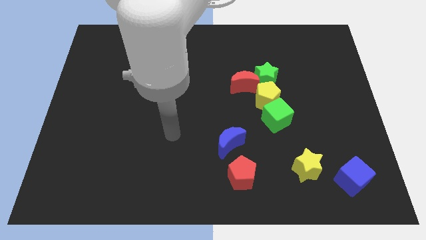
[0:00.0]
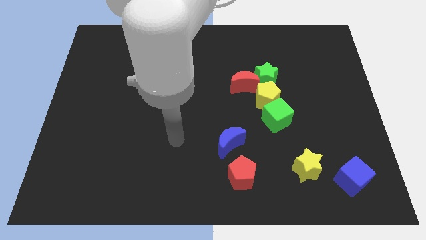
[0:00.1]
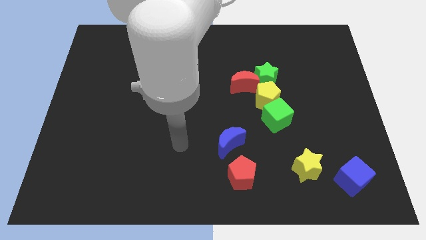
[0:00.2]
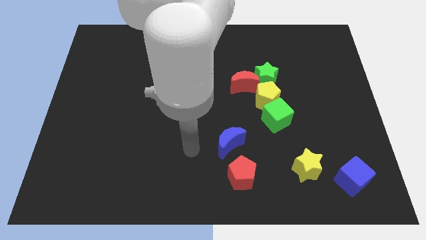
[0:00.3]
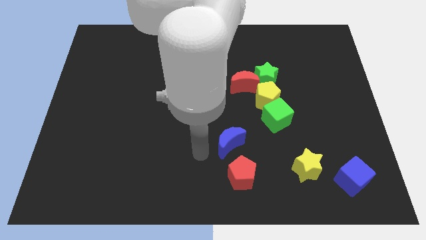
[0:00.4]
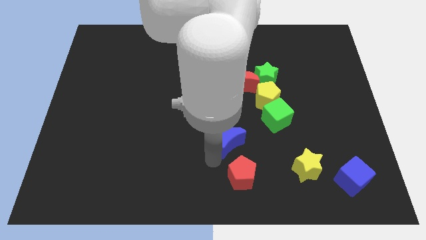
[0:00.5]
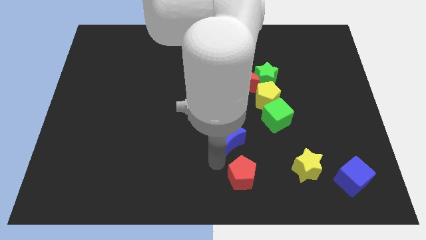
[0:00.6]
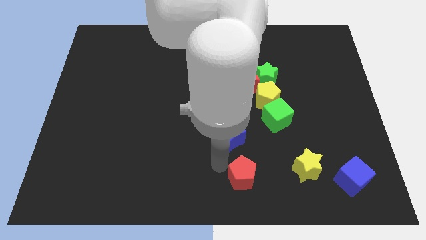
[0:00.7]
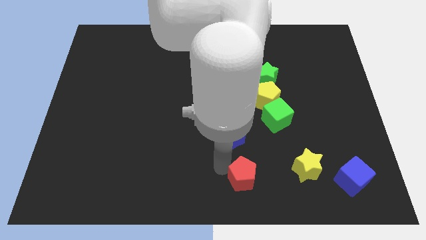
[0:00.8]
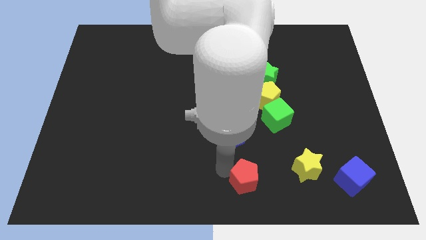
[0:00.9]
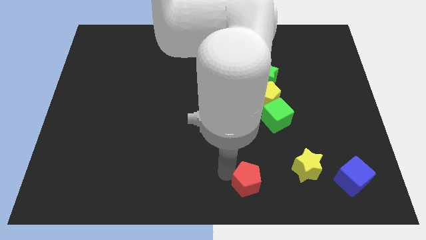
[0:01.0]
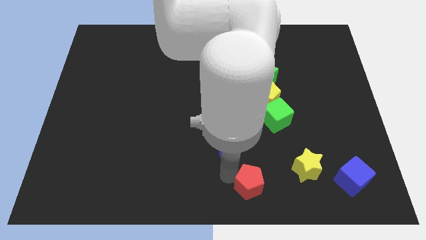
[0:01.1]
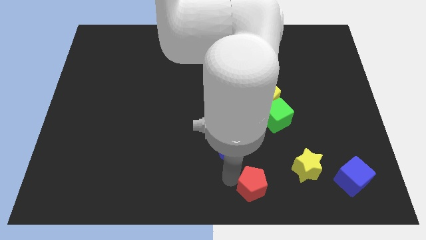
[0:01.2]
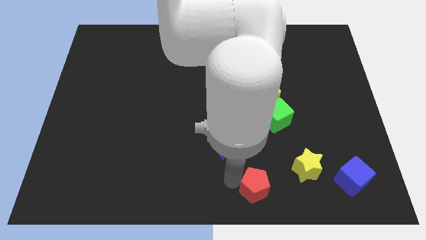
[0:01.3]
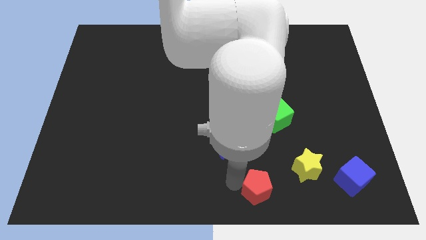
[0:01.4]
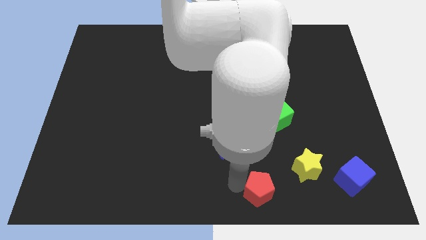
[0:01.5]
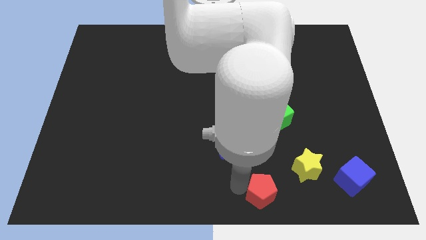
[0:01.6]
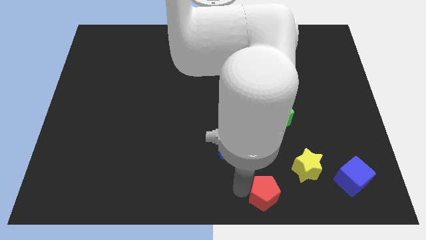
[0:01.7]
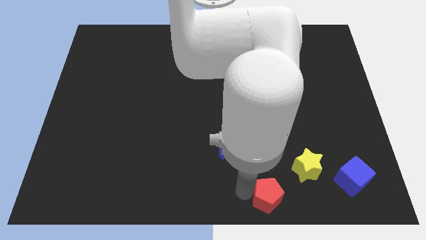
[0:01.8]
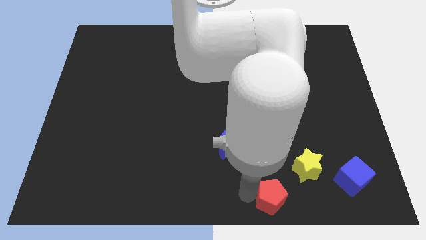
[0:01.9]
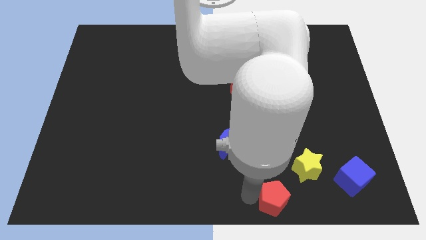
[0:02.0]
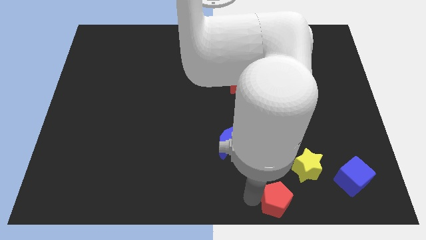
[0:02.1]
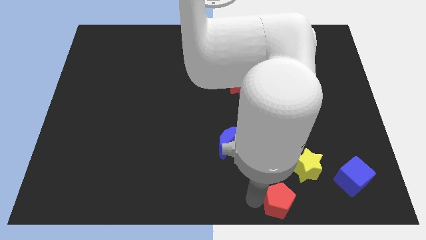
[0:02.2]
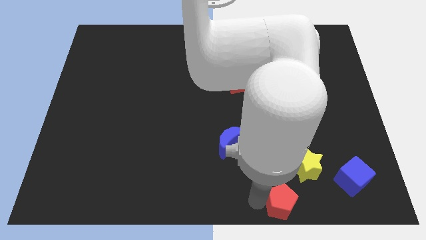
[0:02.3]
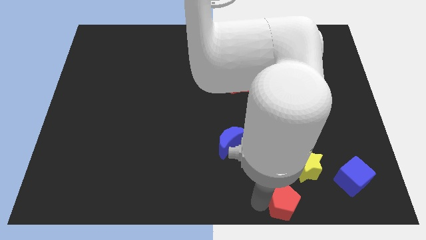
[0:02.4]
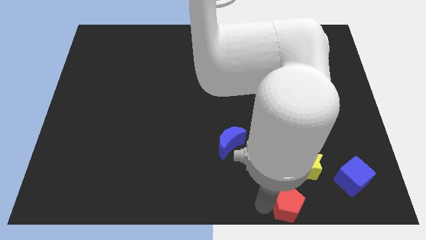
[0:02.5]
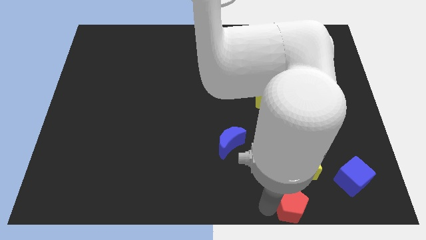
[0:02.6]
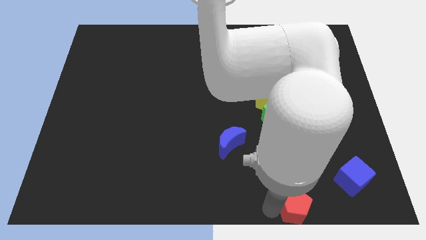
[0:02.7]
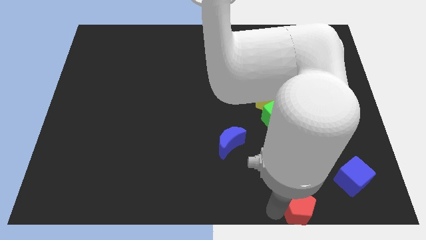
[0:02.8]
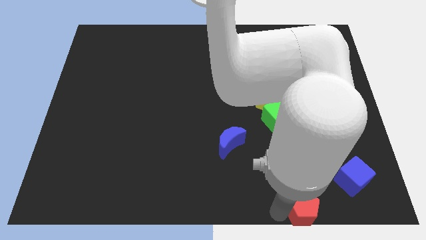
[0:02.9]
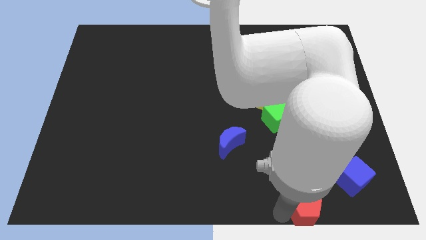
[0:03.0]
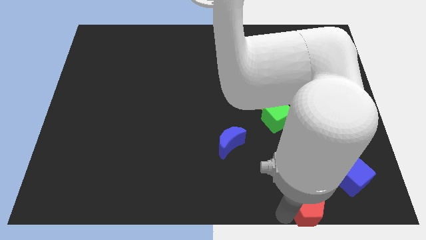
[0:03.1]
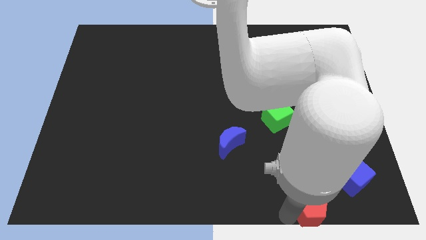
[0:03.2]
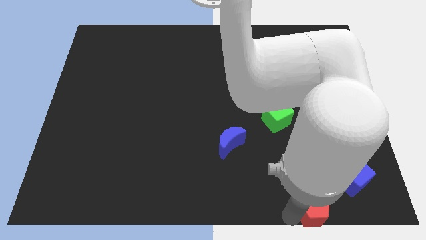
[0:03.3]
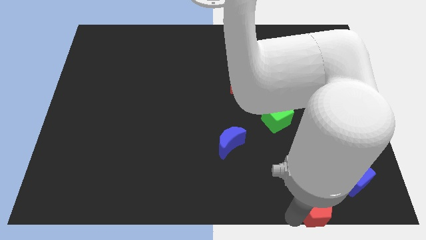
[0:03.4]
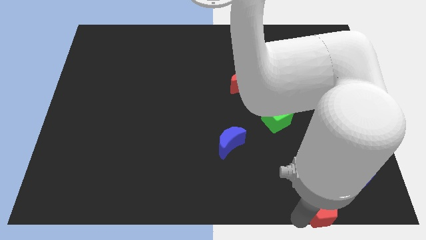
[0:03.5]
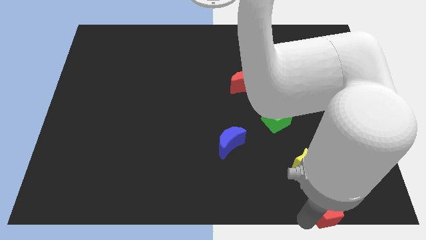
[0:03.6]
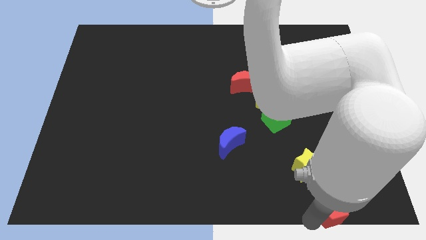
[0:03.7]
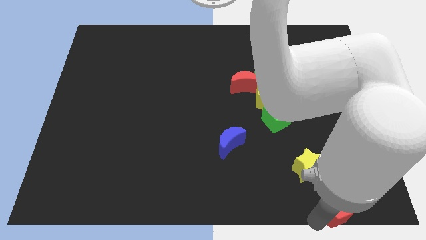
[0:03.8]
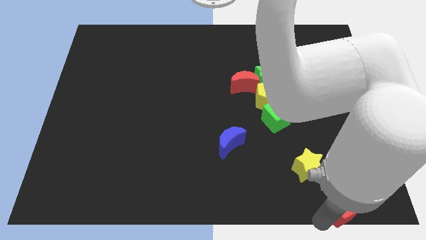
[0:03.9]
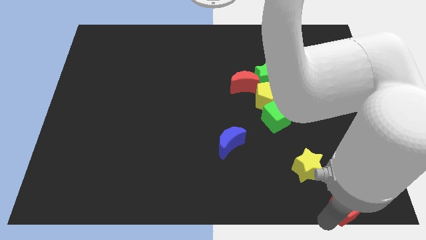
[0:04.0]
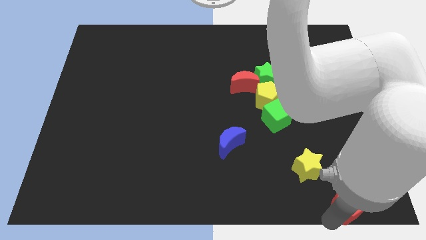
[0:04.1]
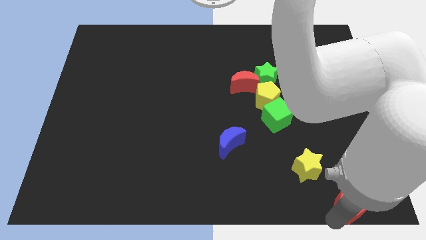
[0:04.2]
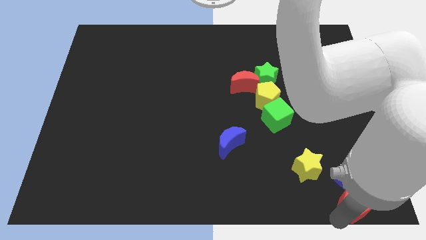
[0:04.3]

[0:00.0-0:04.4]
move the red pentagon next to the blue cube

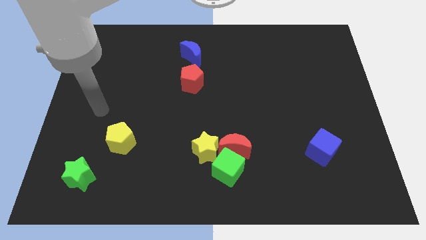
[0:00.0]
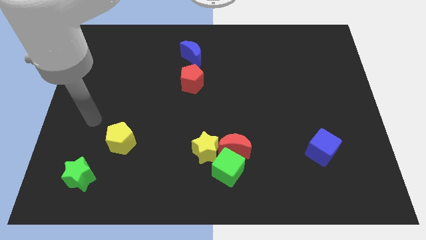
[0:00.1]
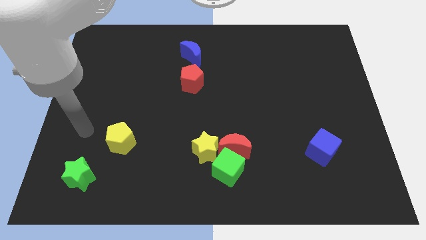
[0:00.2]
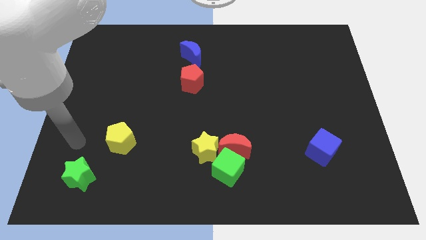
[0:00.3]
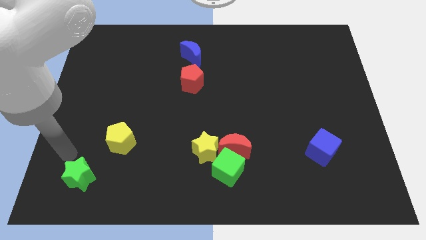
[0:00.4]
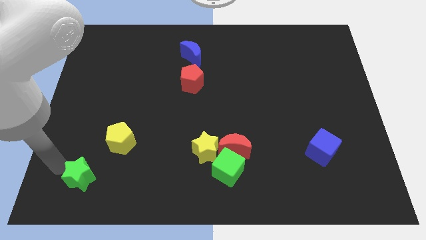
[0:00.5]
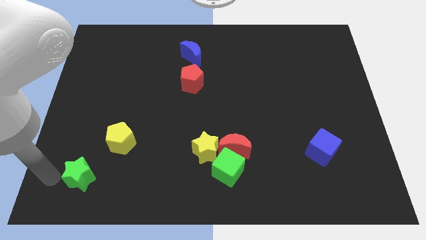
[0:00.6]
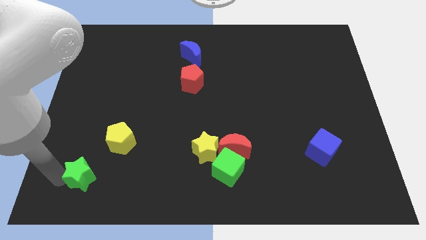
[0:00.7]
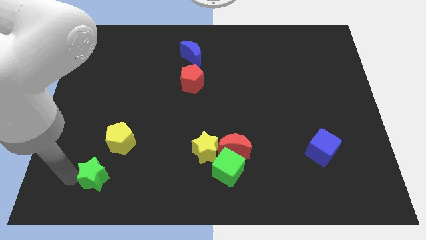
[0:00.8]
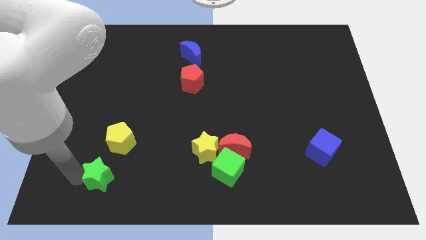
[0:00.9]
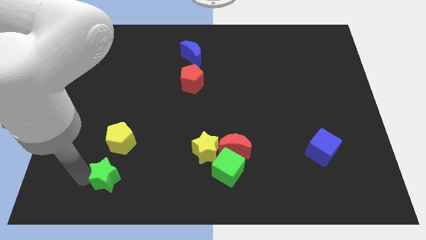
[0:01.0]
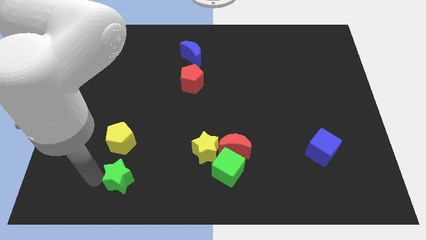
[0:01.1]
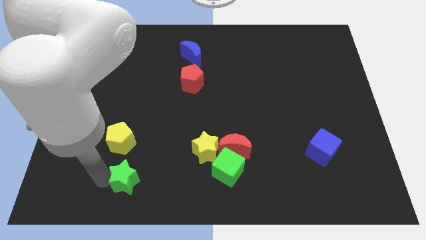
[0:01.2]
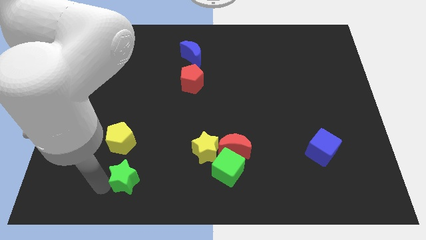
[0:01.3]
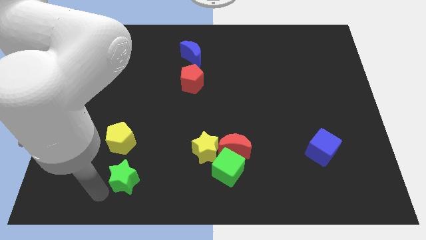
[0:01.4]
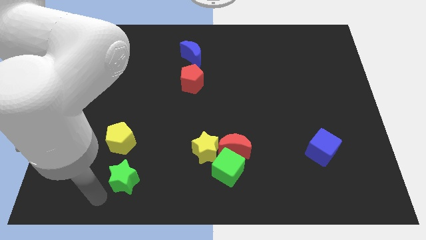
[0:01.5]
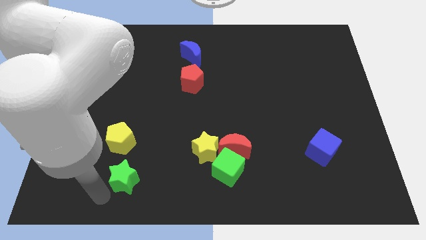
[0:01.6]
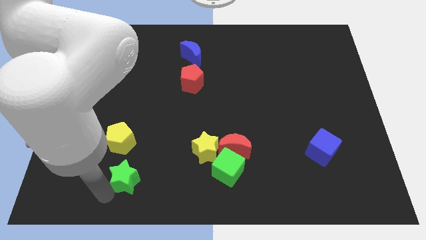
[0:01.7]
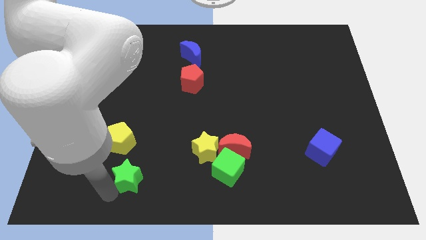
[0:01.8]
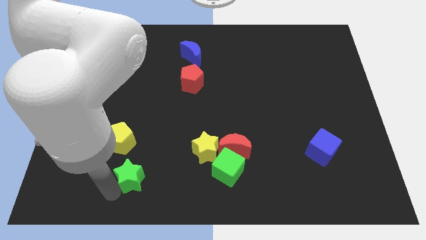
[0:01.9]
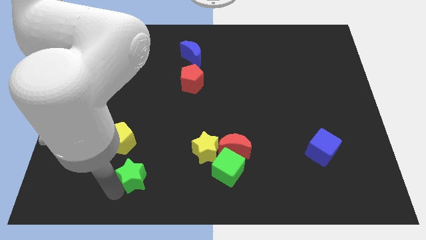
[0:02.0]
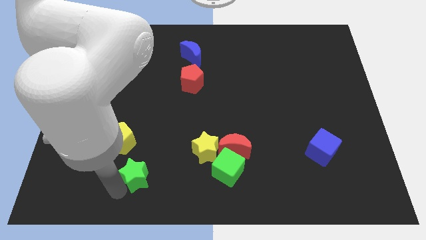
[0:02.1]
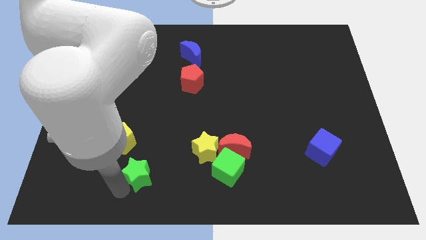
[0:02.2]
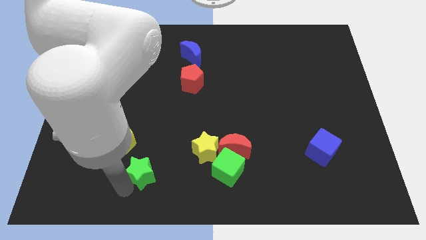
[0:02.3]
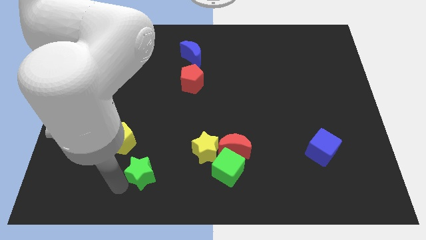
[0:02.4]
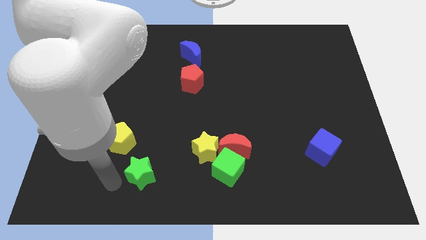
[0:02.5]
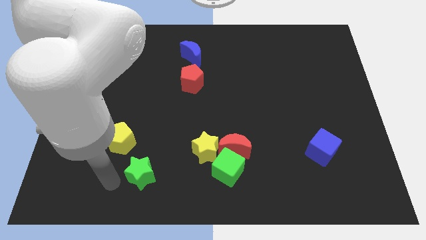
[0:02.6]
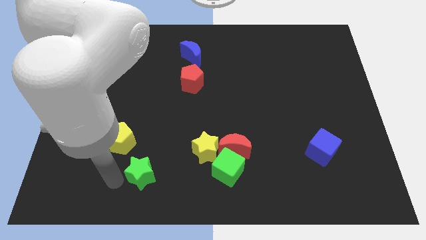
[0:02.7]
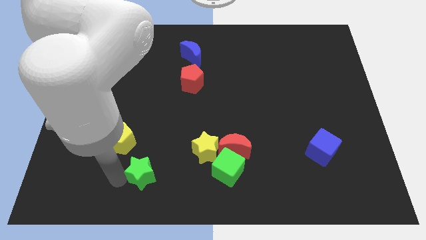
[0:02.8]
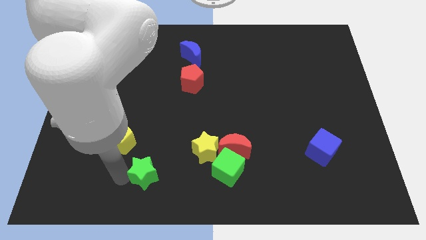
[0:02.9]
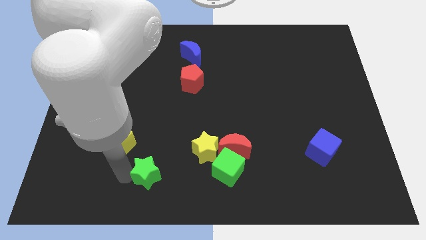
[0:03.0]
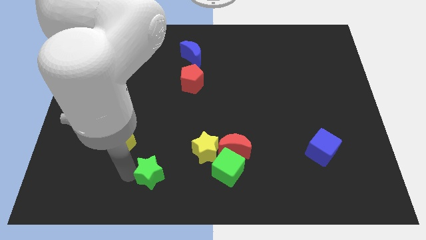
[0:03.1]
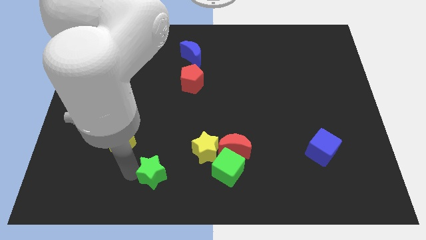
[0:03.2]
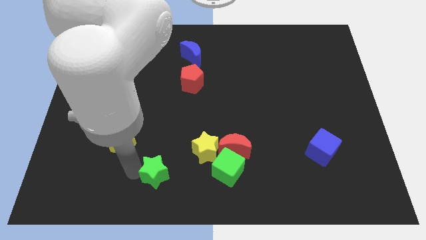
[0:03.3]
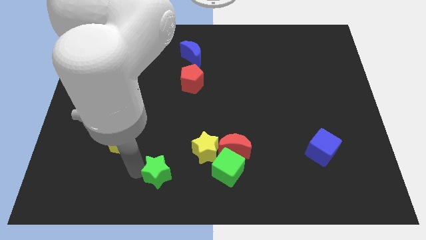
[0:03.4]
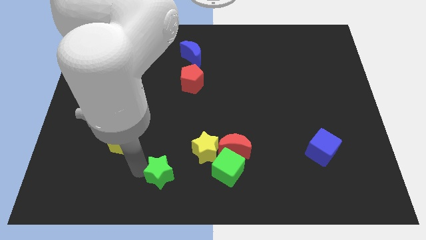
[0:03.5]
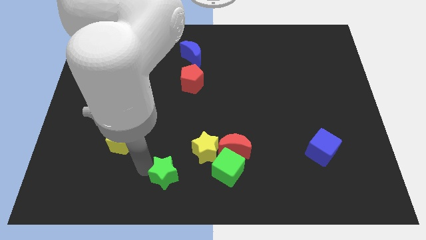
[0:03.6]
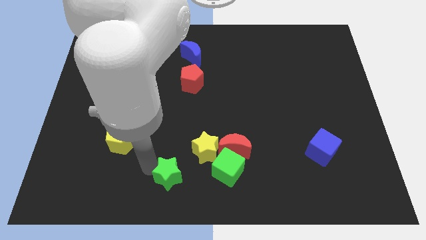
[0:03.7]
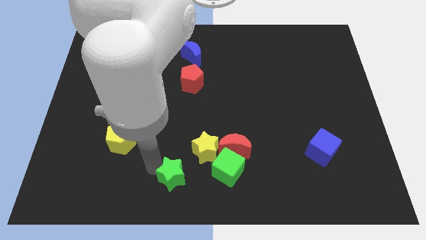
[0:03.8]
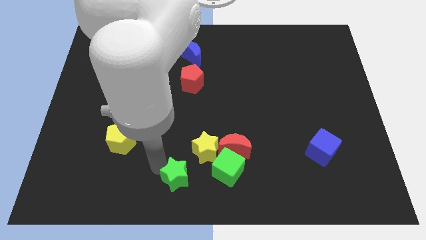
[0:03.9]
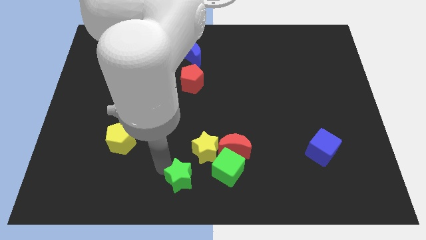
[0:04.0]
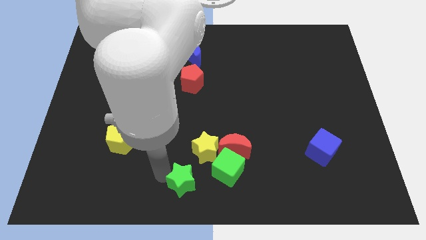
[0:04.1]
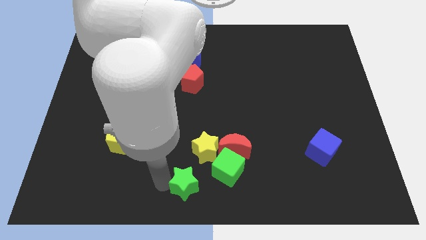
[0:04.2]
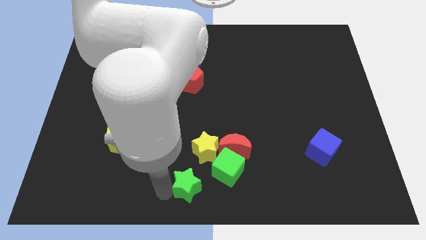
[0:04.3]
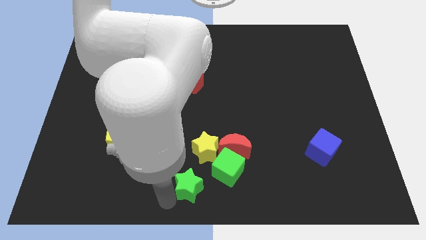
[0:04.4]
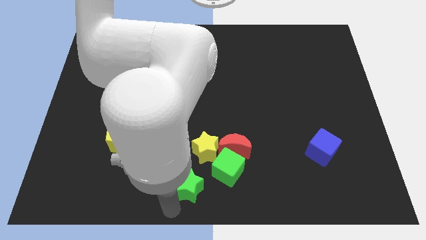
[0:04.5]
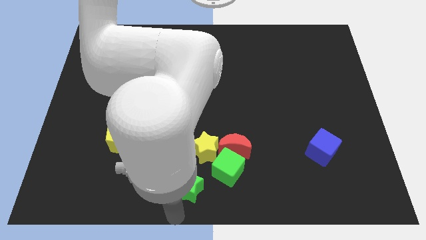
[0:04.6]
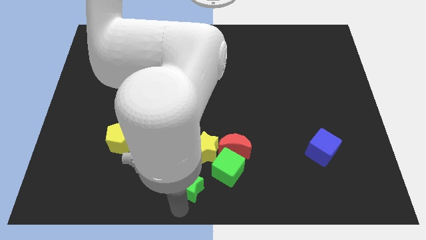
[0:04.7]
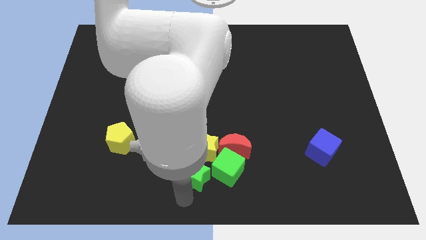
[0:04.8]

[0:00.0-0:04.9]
put the green star next to the yellow star
